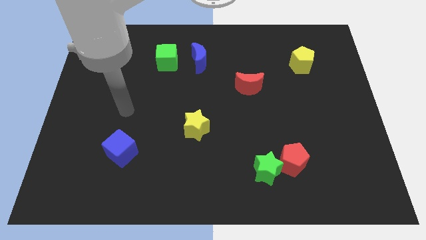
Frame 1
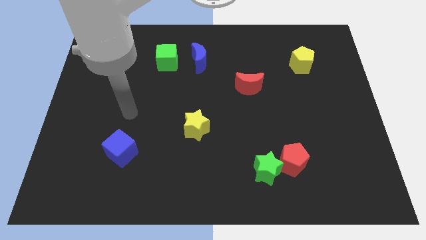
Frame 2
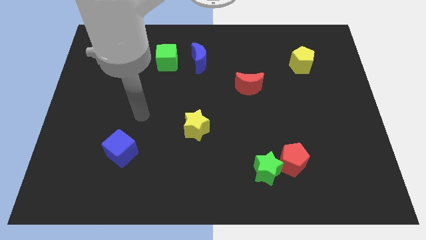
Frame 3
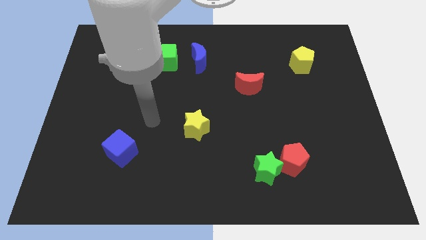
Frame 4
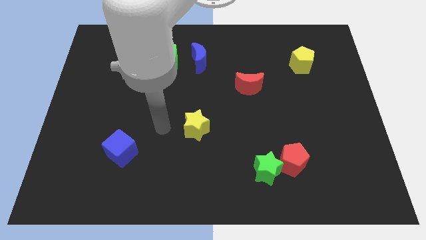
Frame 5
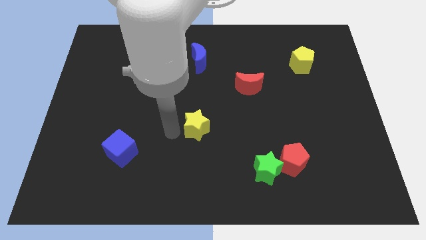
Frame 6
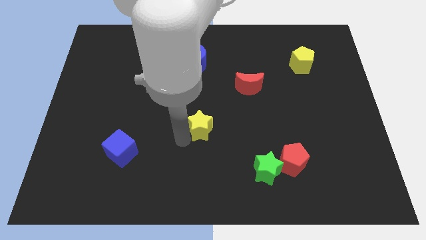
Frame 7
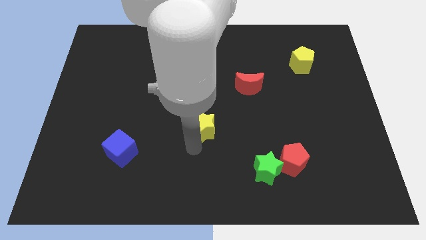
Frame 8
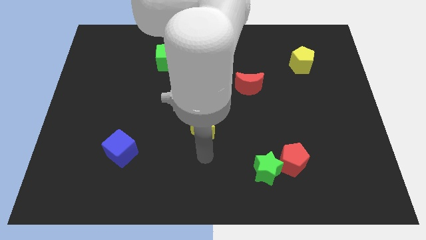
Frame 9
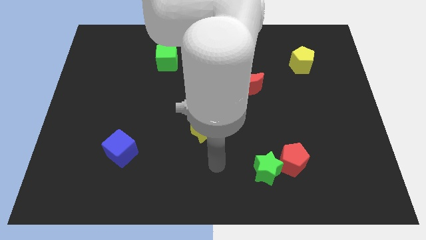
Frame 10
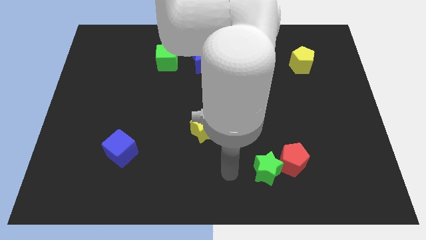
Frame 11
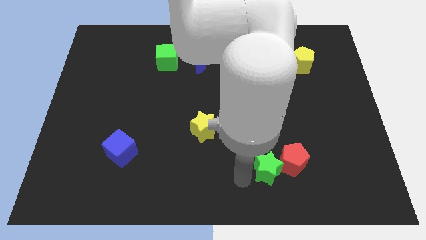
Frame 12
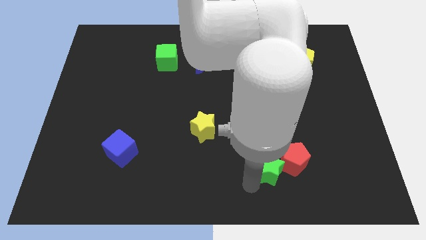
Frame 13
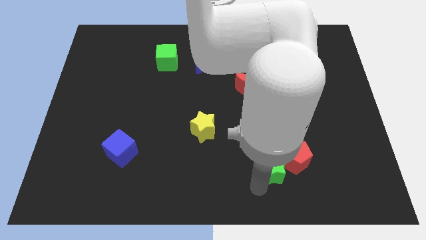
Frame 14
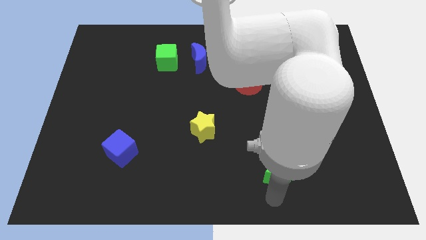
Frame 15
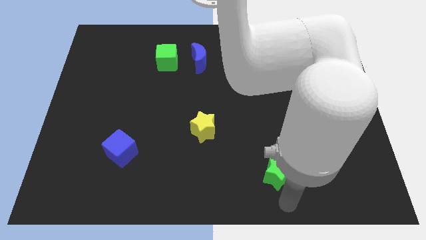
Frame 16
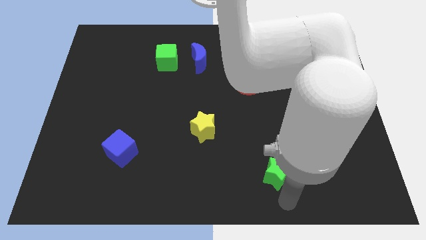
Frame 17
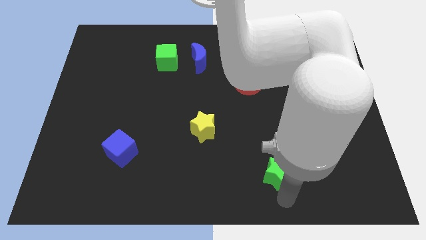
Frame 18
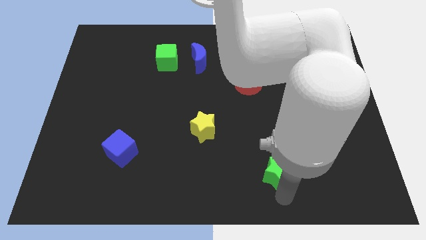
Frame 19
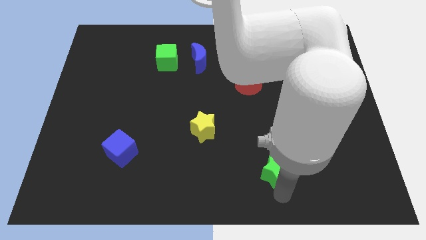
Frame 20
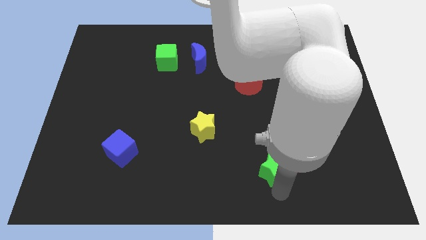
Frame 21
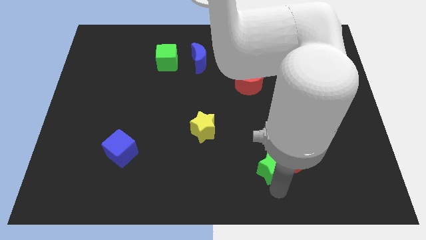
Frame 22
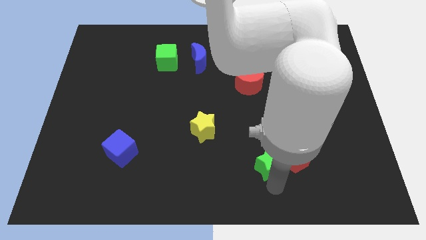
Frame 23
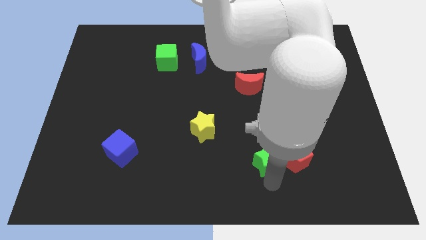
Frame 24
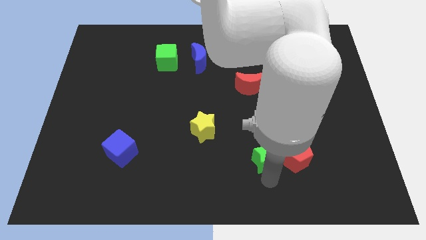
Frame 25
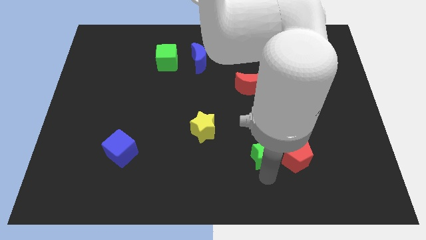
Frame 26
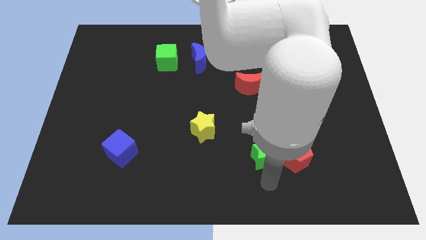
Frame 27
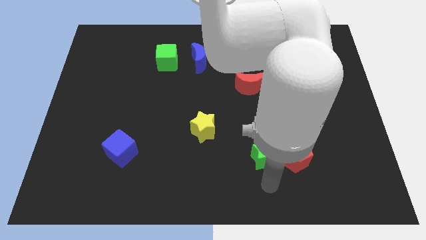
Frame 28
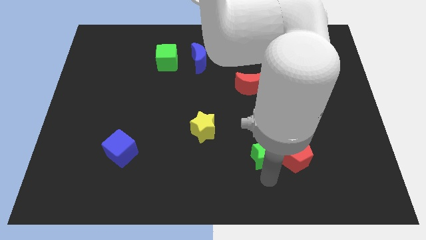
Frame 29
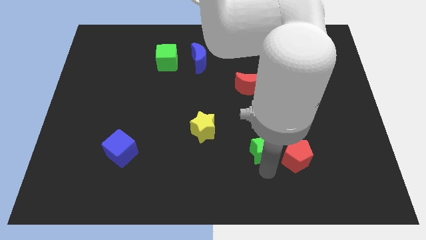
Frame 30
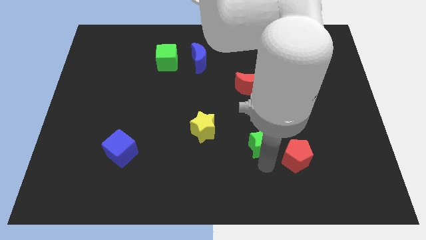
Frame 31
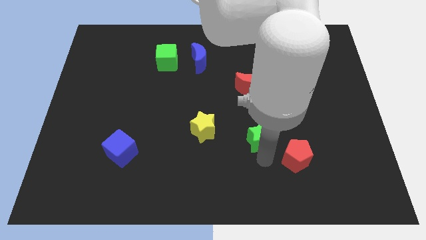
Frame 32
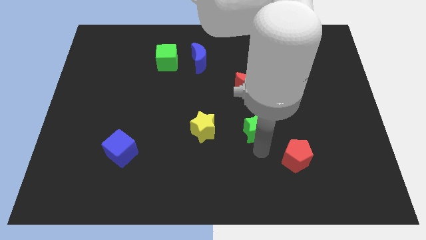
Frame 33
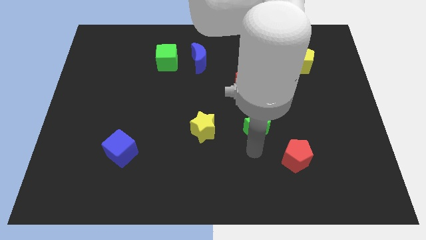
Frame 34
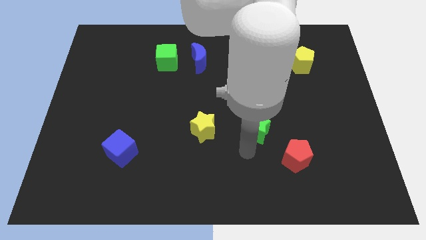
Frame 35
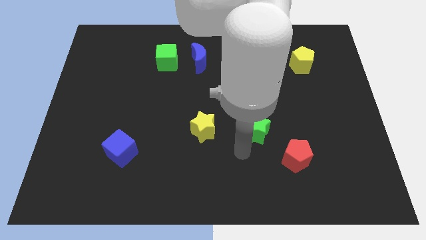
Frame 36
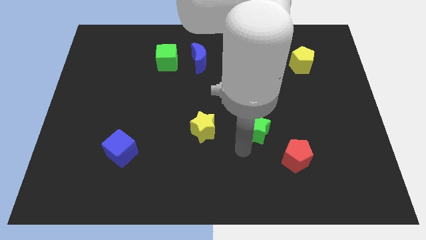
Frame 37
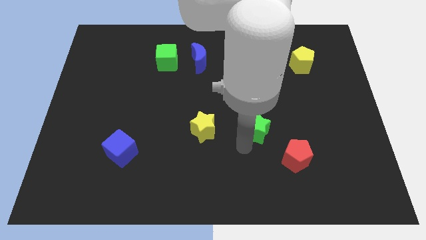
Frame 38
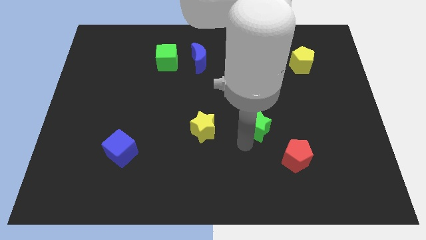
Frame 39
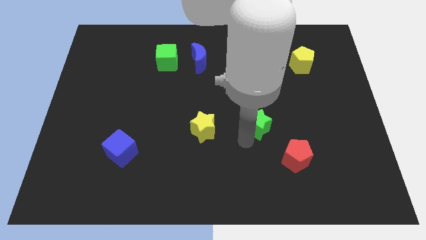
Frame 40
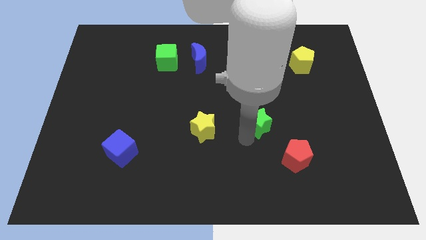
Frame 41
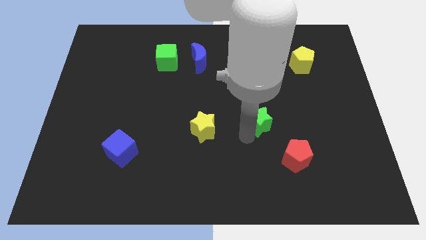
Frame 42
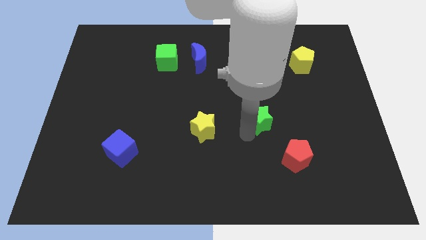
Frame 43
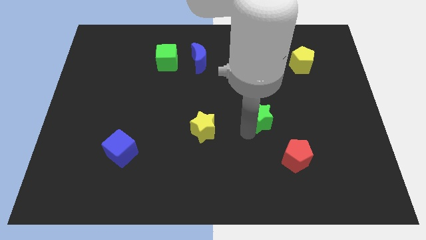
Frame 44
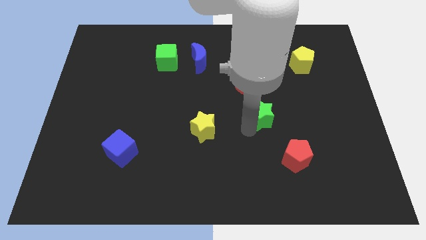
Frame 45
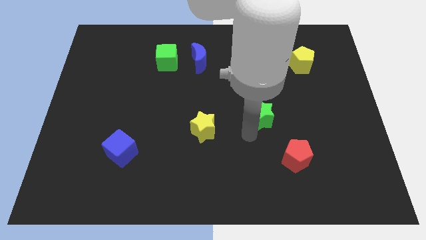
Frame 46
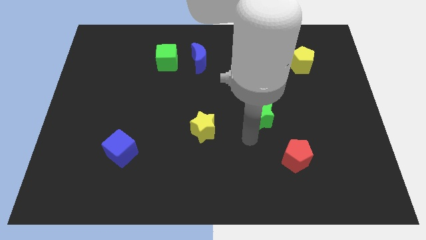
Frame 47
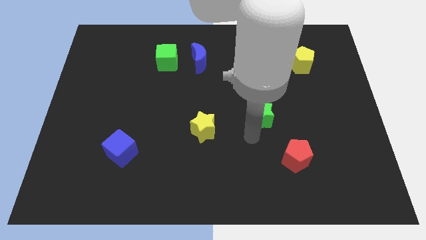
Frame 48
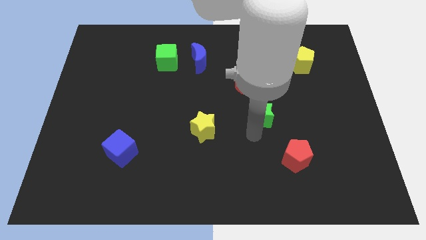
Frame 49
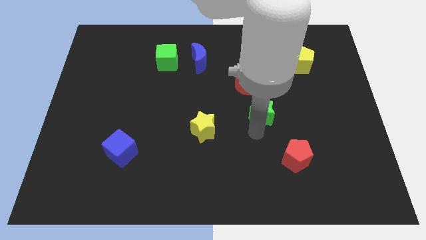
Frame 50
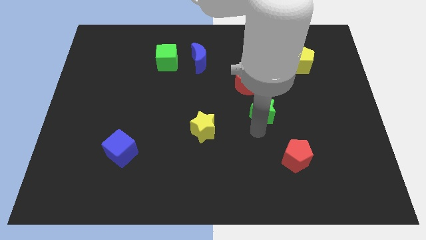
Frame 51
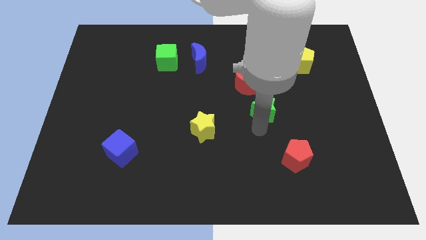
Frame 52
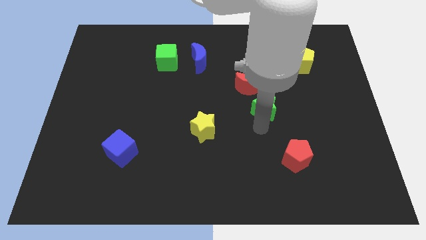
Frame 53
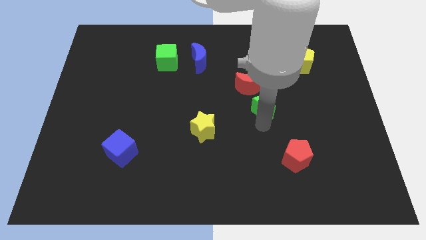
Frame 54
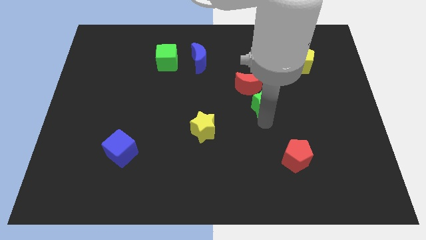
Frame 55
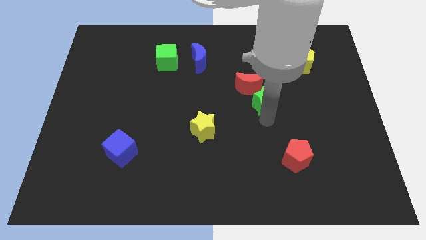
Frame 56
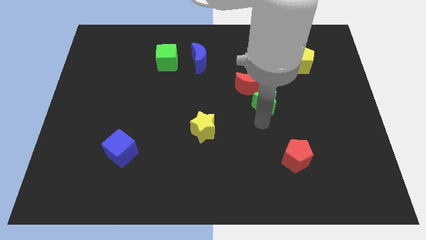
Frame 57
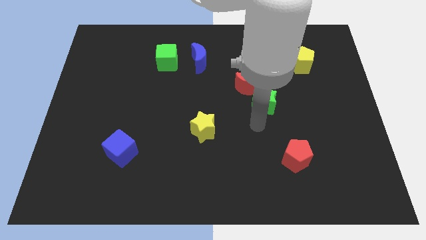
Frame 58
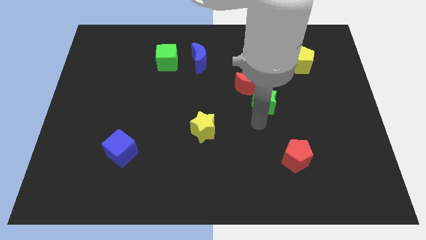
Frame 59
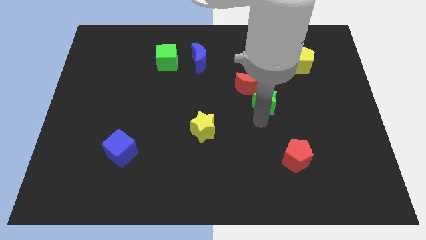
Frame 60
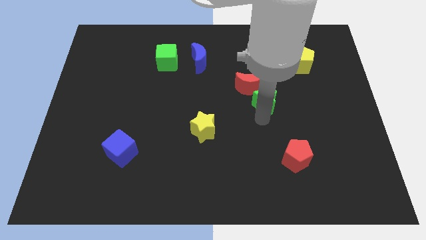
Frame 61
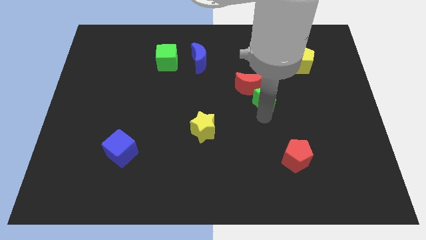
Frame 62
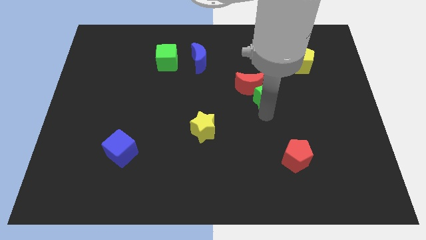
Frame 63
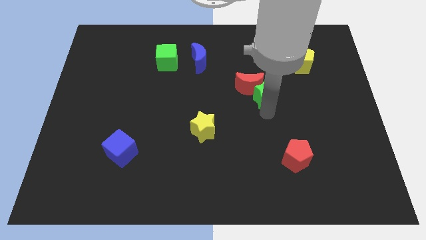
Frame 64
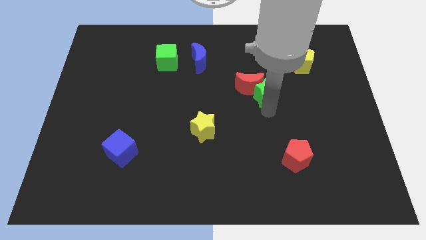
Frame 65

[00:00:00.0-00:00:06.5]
move the green star upwards

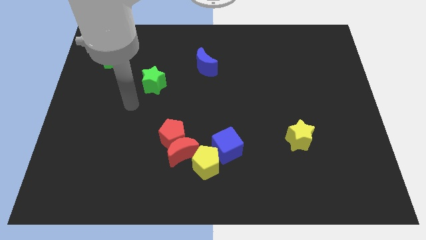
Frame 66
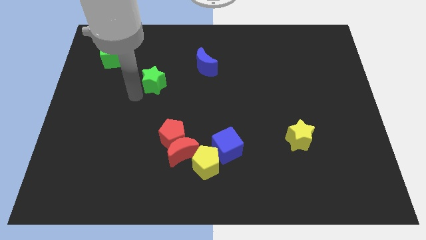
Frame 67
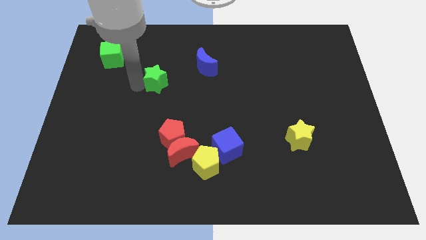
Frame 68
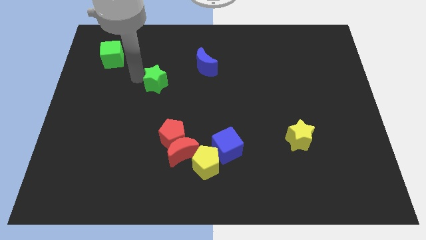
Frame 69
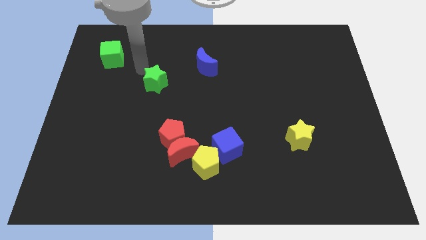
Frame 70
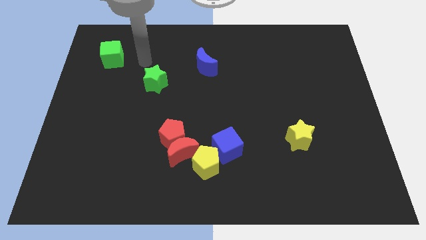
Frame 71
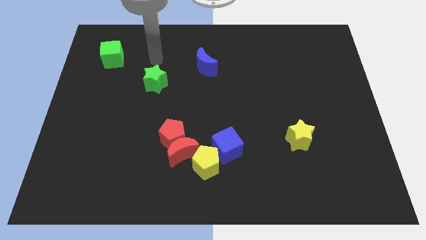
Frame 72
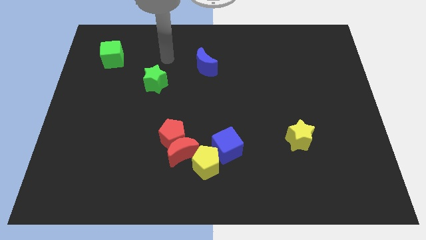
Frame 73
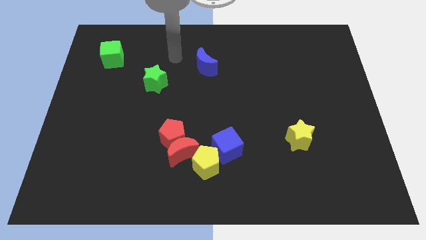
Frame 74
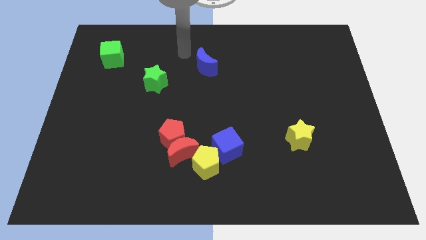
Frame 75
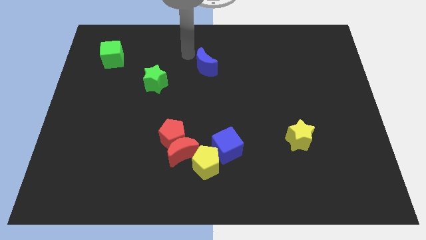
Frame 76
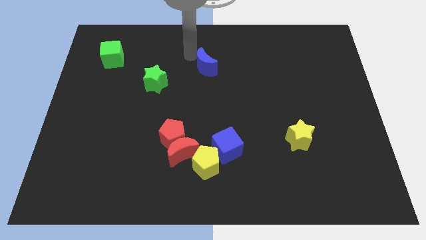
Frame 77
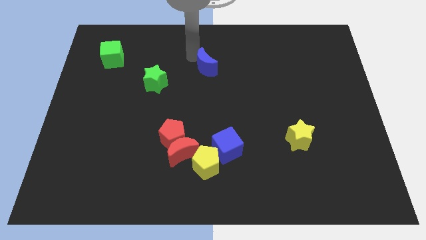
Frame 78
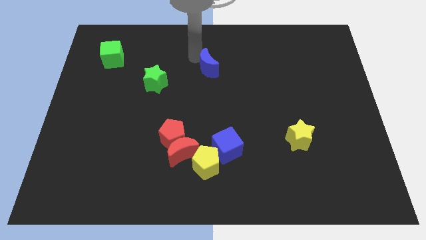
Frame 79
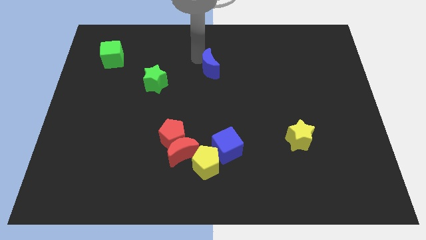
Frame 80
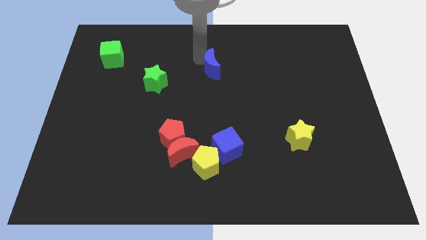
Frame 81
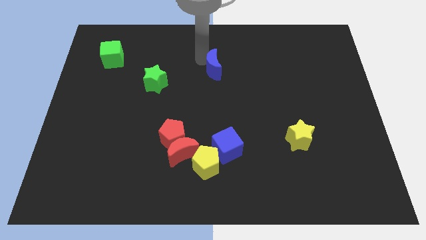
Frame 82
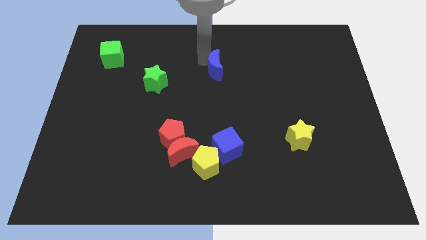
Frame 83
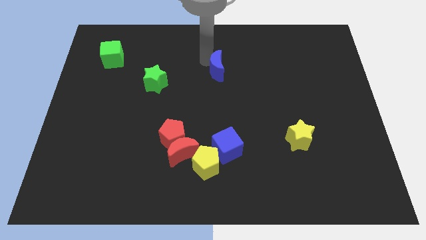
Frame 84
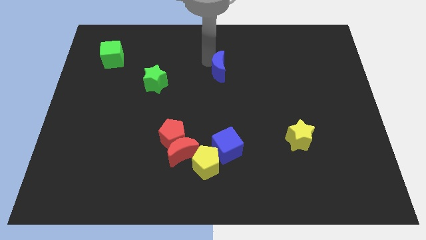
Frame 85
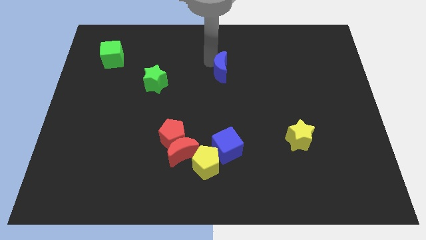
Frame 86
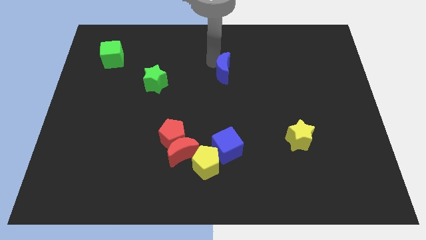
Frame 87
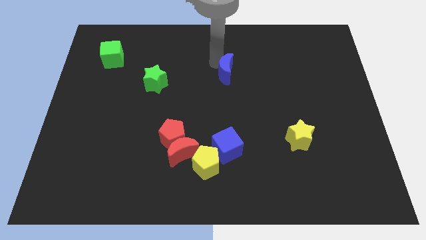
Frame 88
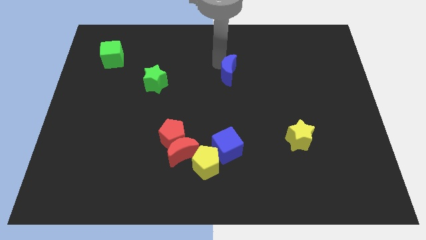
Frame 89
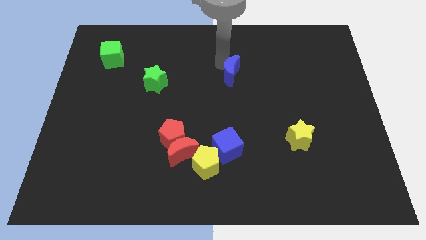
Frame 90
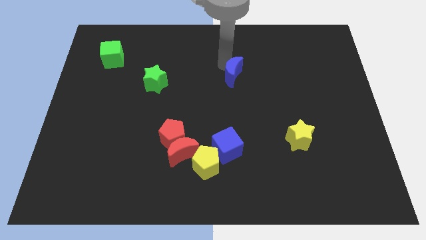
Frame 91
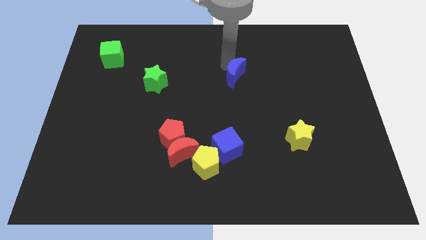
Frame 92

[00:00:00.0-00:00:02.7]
move the blue moon a bit down and to the right
